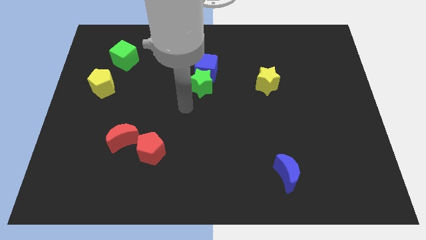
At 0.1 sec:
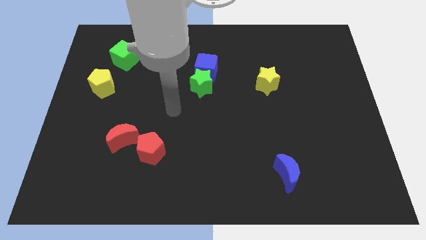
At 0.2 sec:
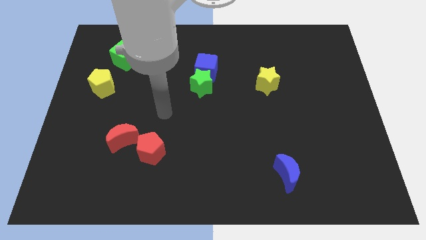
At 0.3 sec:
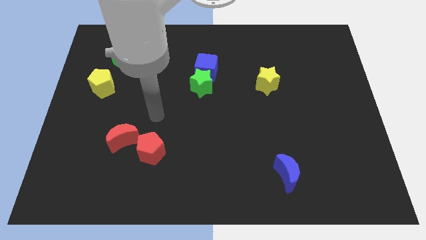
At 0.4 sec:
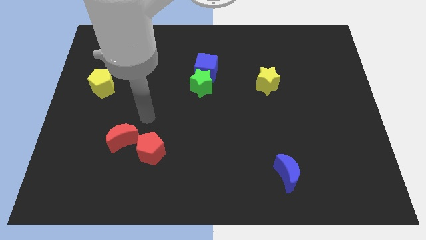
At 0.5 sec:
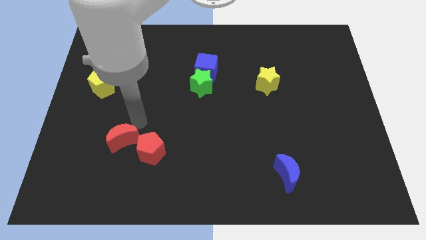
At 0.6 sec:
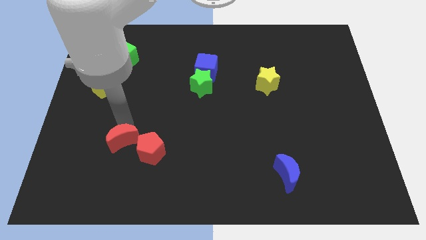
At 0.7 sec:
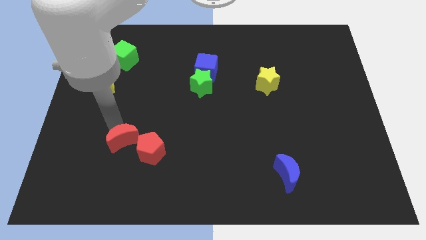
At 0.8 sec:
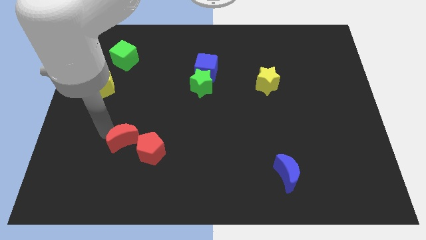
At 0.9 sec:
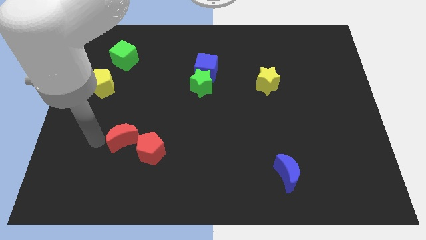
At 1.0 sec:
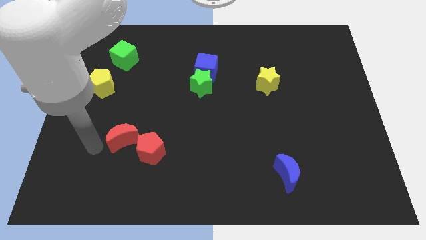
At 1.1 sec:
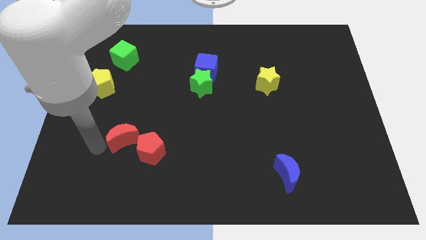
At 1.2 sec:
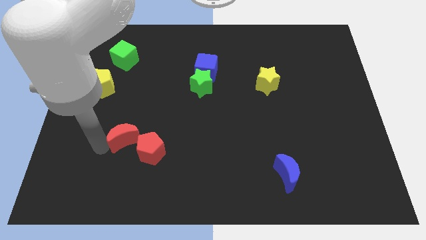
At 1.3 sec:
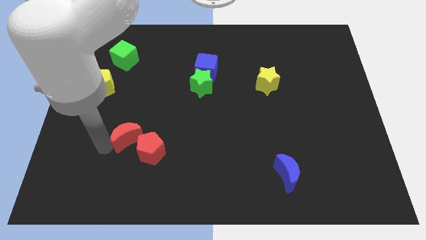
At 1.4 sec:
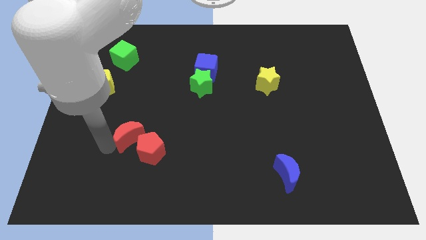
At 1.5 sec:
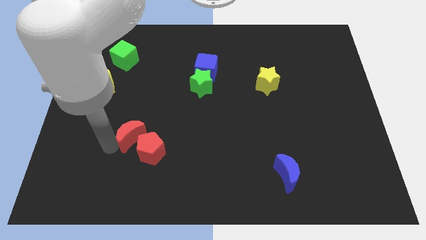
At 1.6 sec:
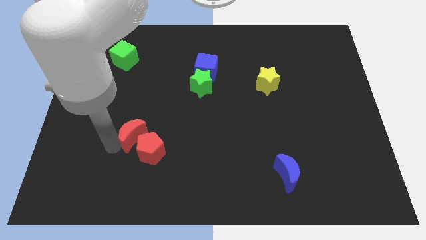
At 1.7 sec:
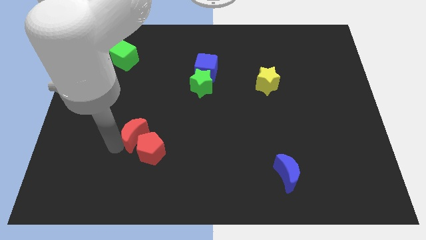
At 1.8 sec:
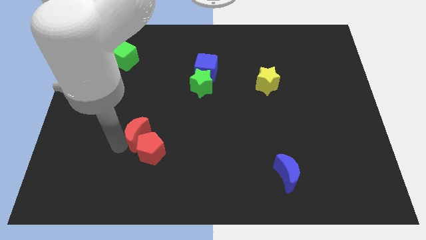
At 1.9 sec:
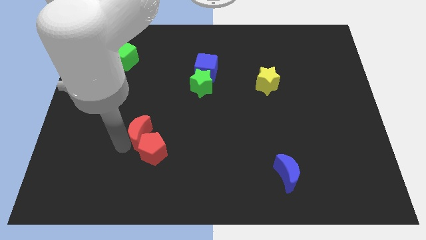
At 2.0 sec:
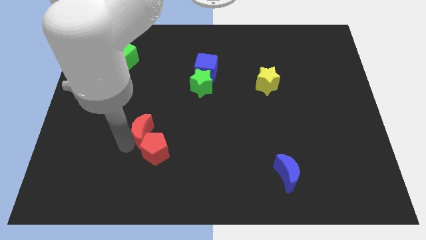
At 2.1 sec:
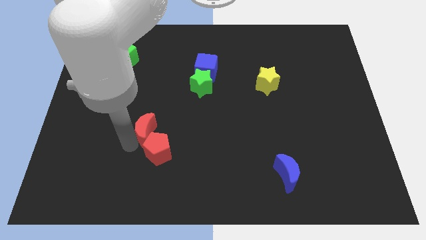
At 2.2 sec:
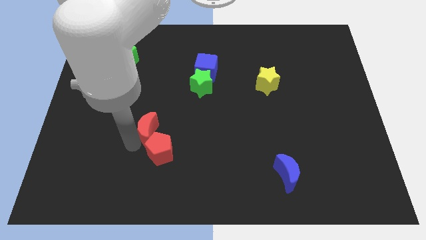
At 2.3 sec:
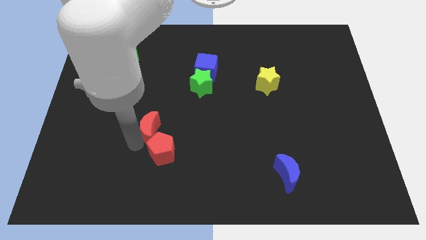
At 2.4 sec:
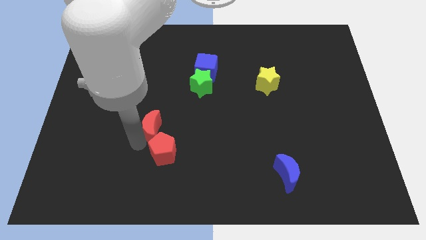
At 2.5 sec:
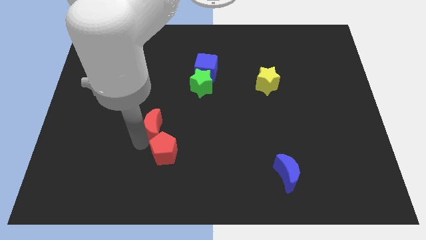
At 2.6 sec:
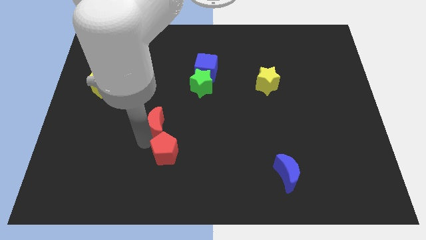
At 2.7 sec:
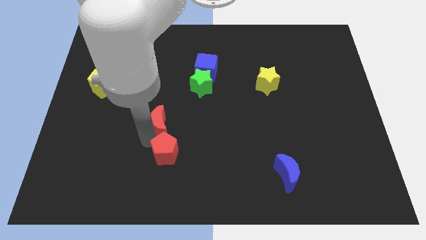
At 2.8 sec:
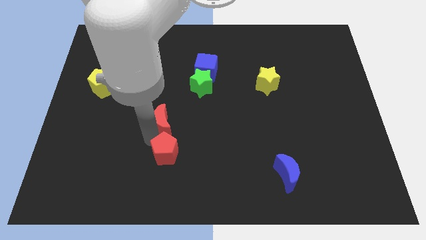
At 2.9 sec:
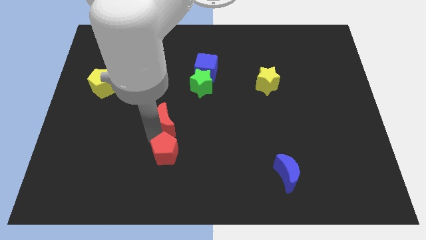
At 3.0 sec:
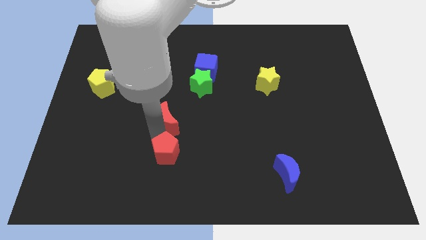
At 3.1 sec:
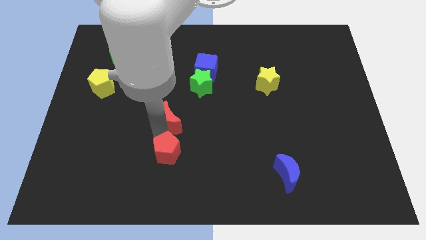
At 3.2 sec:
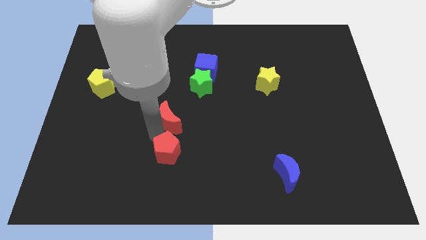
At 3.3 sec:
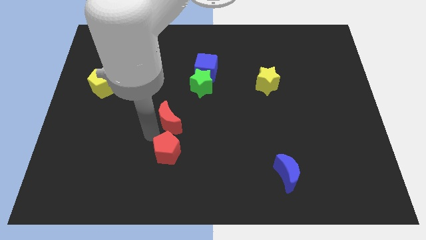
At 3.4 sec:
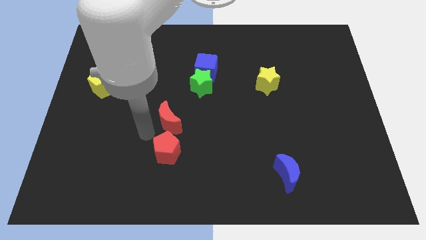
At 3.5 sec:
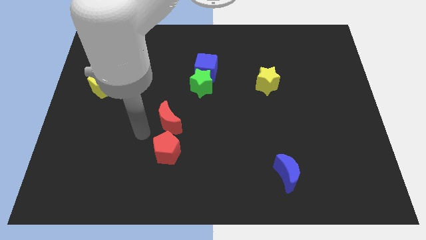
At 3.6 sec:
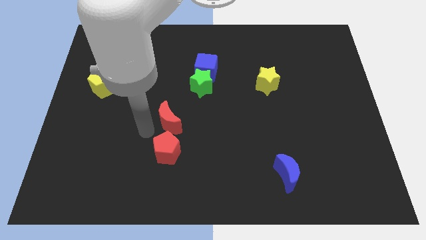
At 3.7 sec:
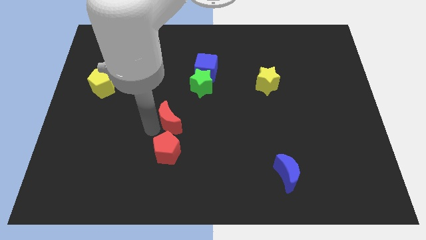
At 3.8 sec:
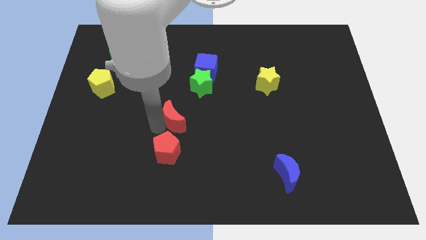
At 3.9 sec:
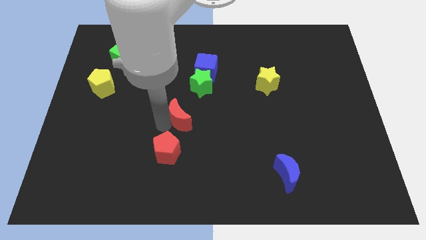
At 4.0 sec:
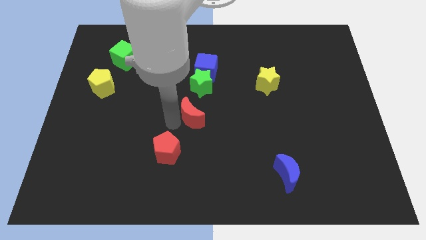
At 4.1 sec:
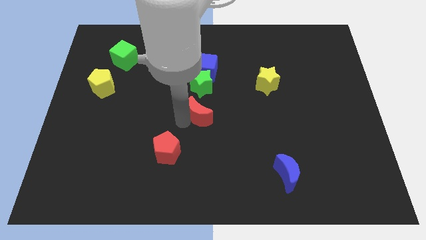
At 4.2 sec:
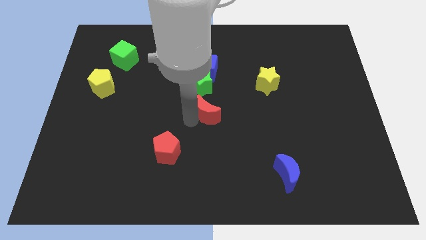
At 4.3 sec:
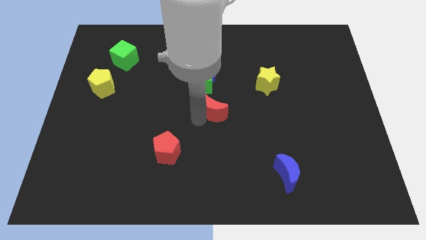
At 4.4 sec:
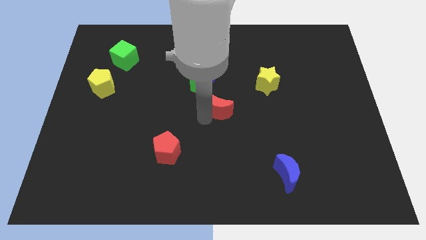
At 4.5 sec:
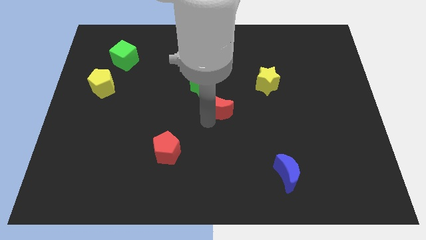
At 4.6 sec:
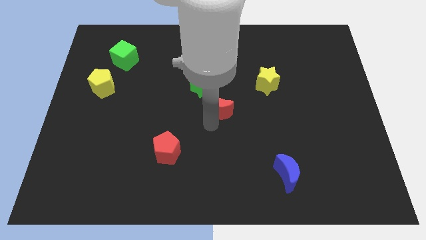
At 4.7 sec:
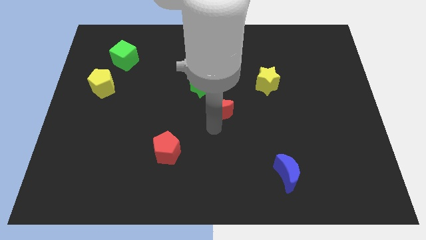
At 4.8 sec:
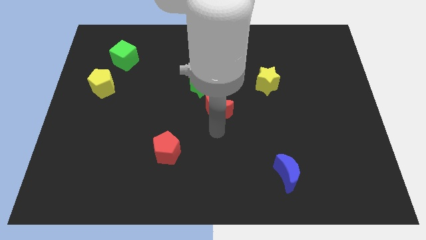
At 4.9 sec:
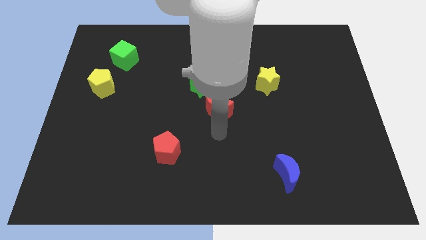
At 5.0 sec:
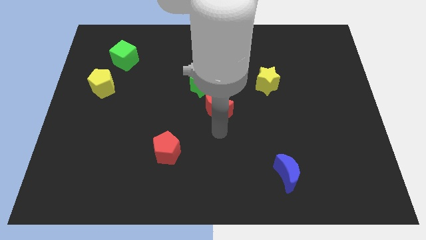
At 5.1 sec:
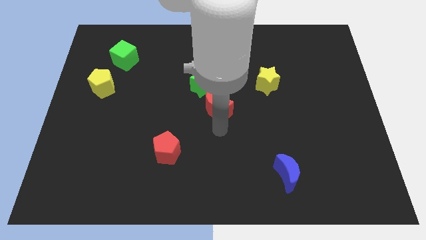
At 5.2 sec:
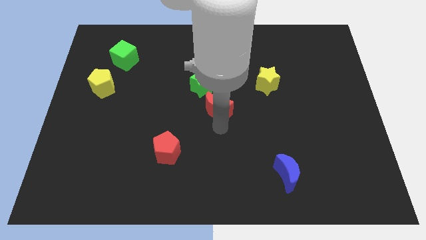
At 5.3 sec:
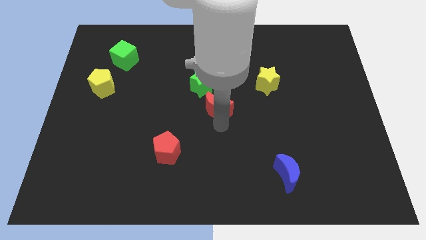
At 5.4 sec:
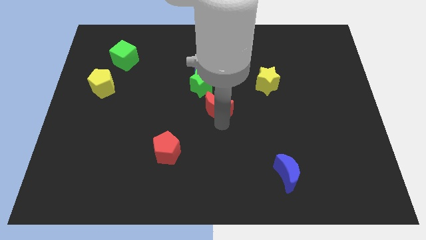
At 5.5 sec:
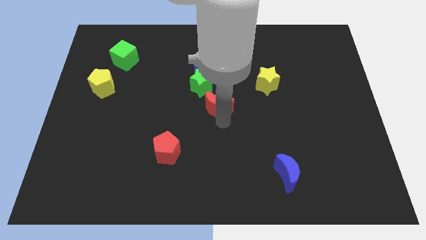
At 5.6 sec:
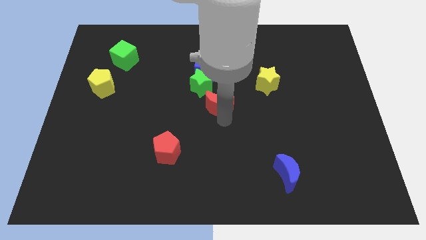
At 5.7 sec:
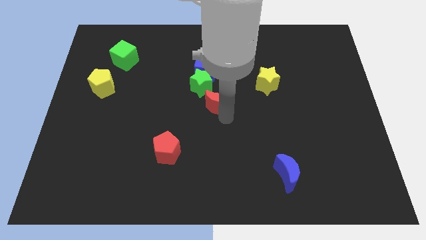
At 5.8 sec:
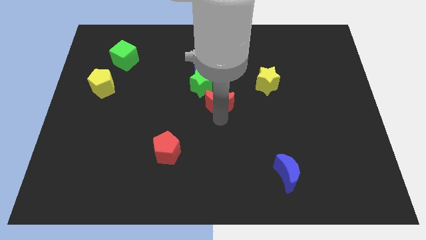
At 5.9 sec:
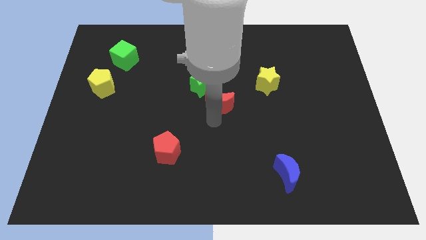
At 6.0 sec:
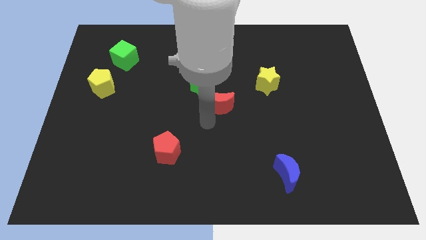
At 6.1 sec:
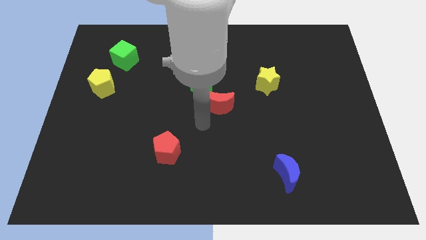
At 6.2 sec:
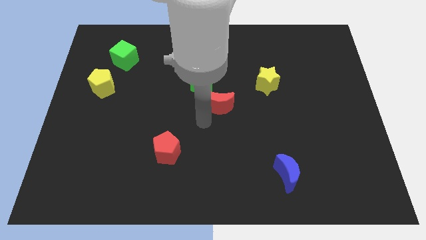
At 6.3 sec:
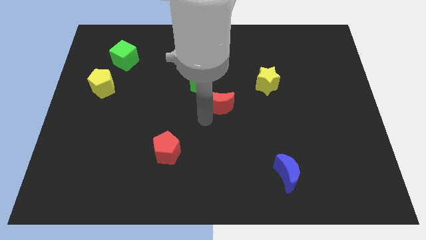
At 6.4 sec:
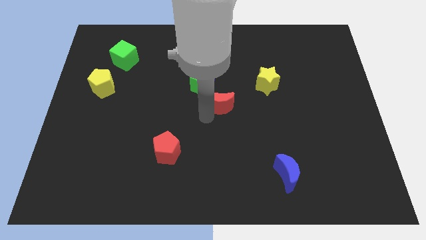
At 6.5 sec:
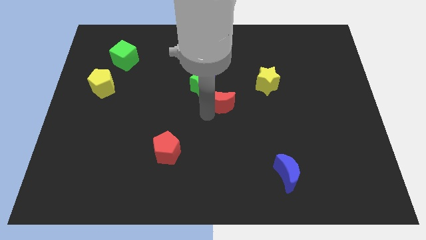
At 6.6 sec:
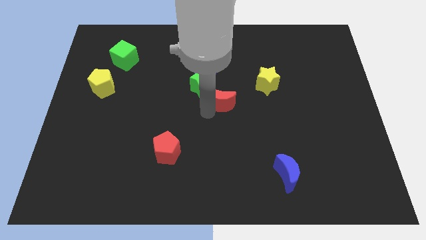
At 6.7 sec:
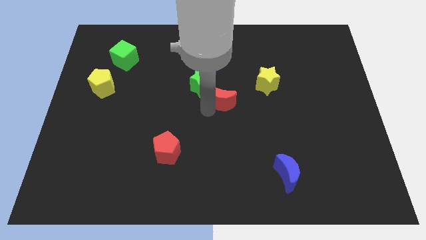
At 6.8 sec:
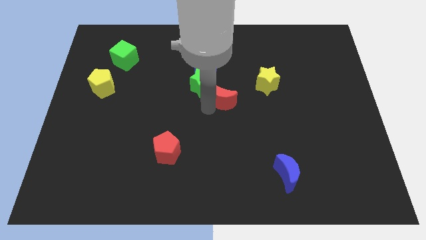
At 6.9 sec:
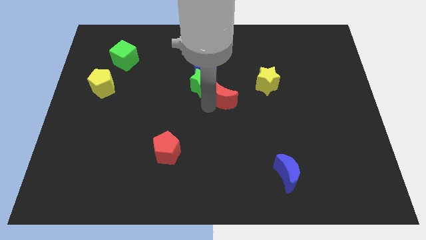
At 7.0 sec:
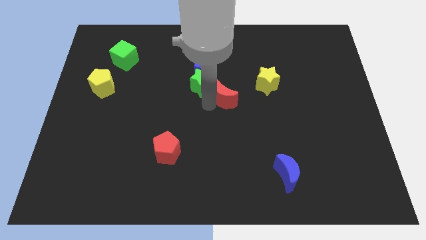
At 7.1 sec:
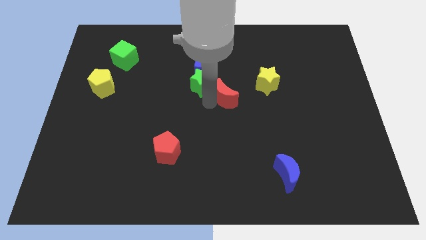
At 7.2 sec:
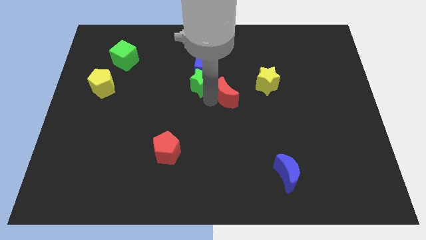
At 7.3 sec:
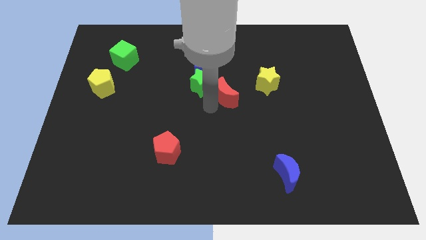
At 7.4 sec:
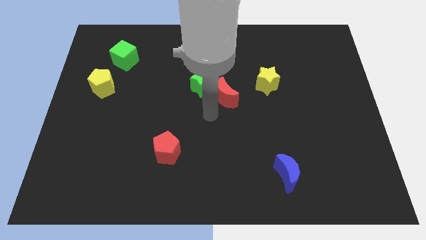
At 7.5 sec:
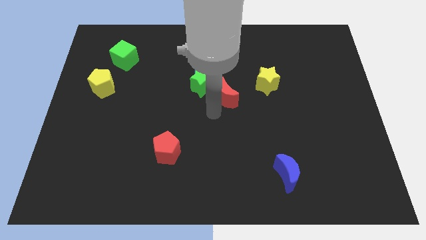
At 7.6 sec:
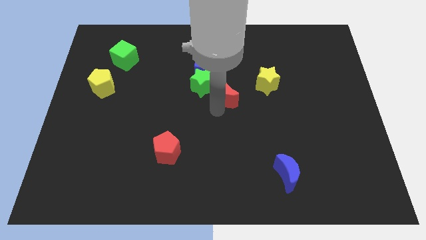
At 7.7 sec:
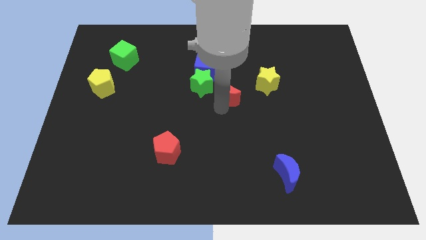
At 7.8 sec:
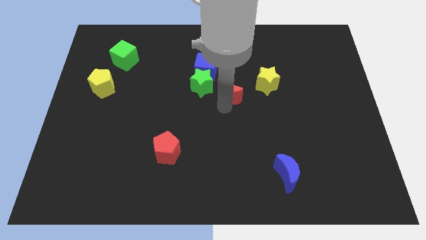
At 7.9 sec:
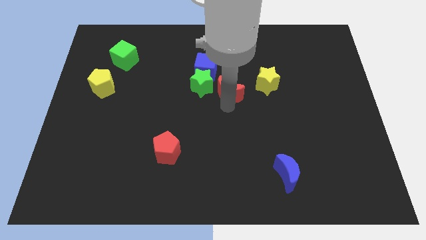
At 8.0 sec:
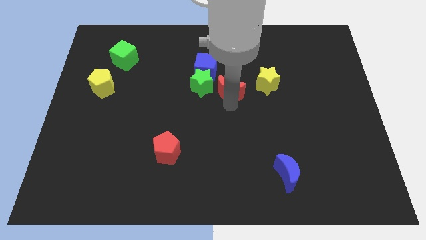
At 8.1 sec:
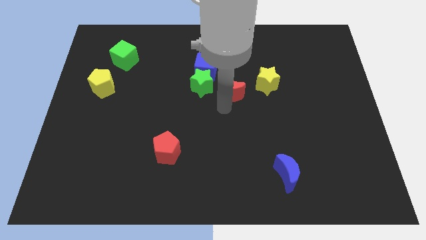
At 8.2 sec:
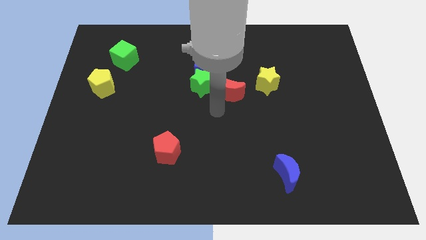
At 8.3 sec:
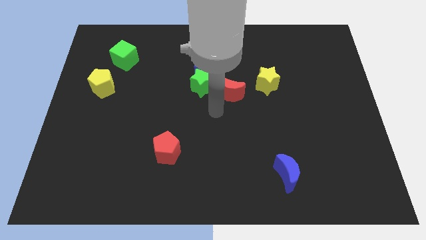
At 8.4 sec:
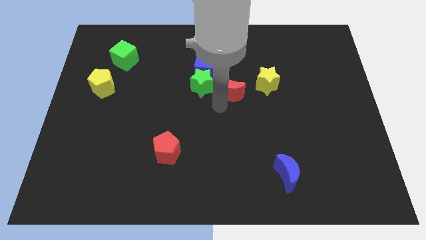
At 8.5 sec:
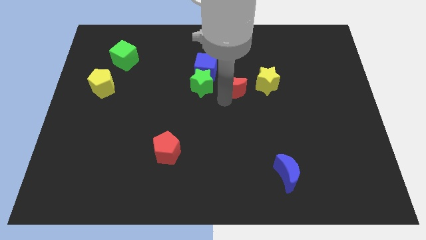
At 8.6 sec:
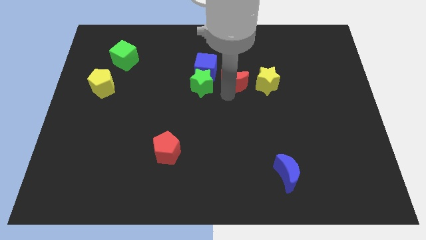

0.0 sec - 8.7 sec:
push the red moon to the right of the blue cube
